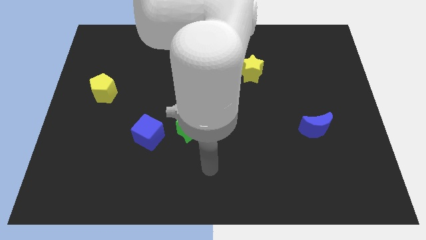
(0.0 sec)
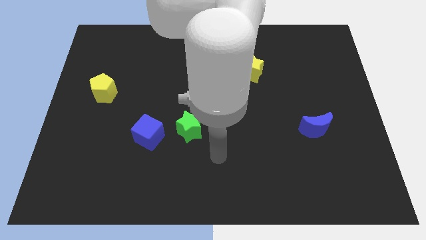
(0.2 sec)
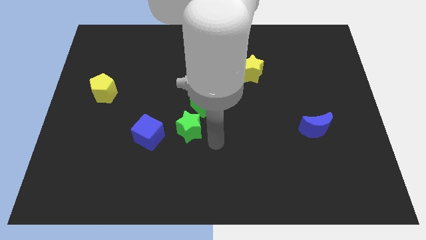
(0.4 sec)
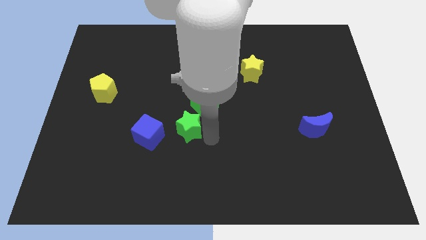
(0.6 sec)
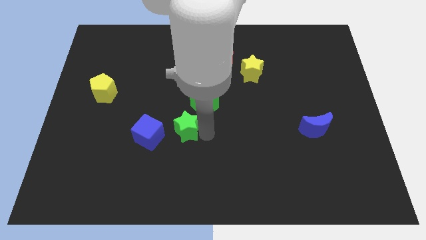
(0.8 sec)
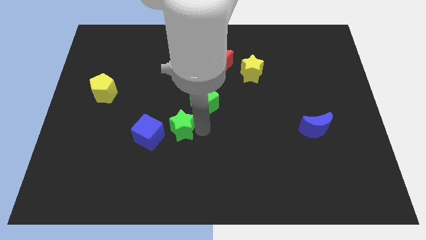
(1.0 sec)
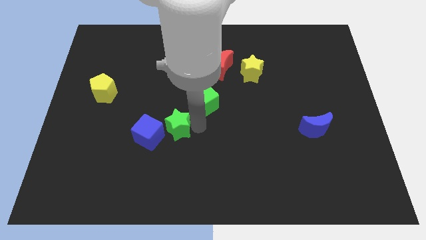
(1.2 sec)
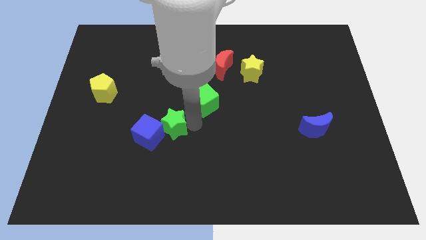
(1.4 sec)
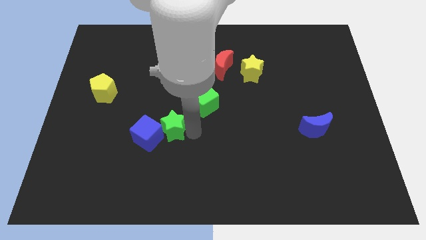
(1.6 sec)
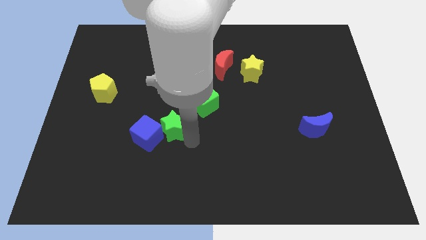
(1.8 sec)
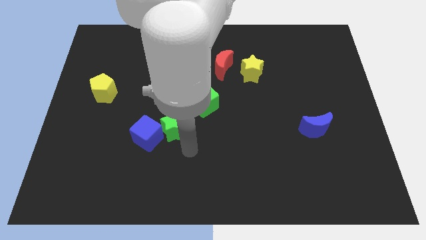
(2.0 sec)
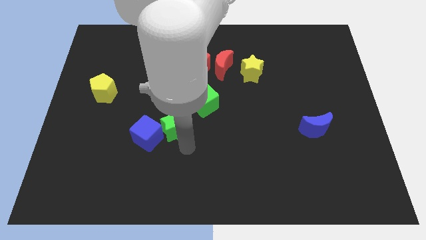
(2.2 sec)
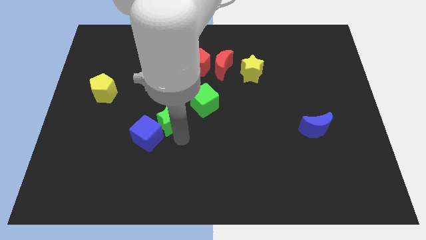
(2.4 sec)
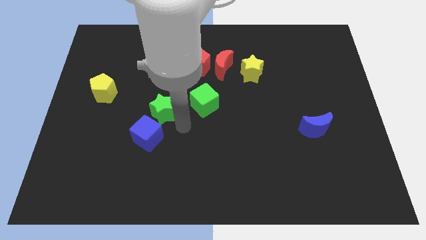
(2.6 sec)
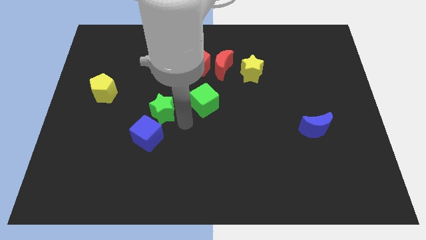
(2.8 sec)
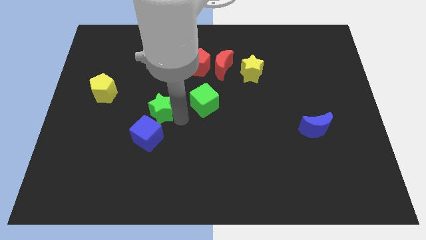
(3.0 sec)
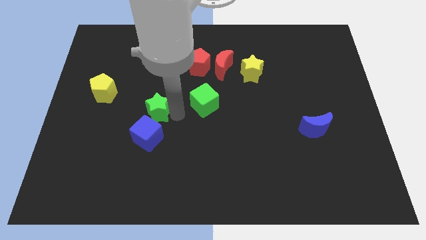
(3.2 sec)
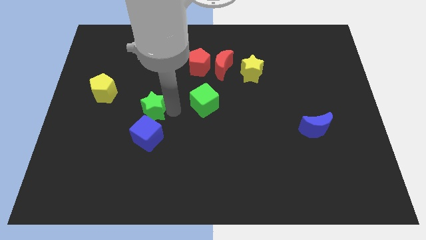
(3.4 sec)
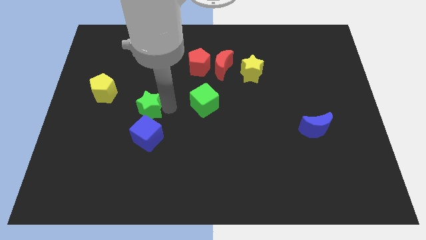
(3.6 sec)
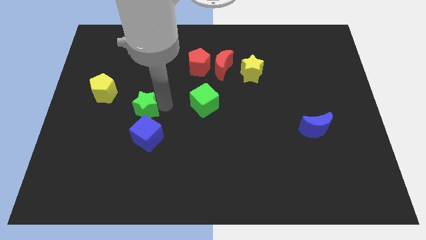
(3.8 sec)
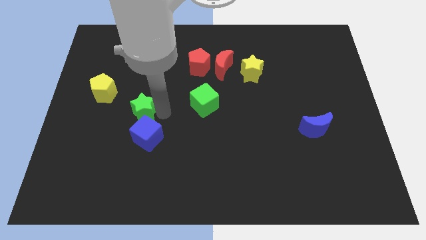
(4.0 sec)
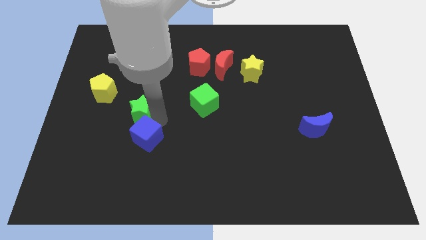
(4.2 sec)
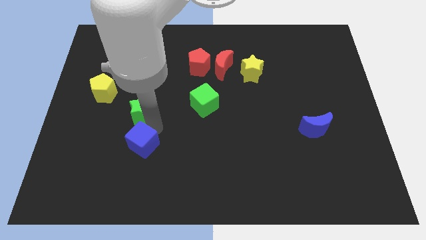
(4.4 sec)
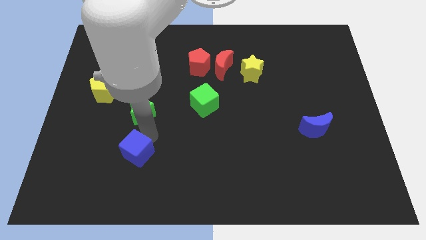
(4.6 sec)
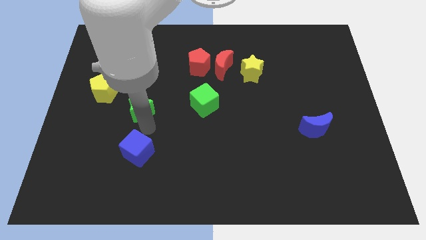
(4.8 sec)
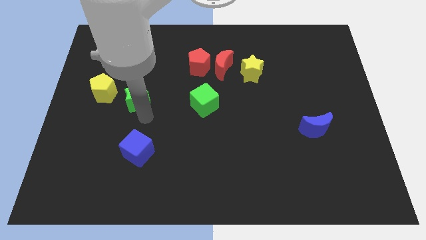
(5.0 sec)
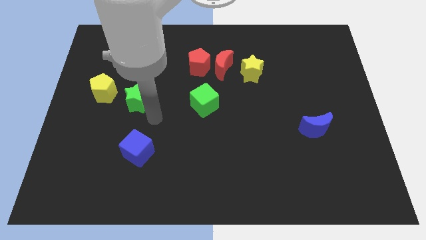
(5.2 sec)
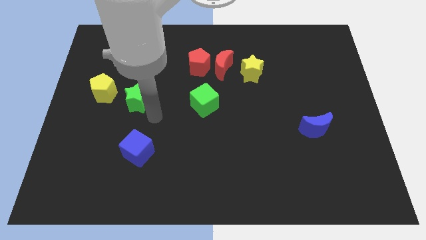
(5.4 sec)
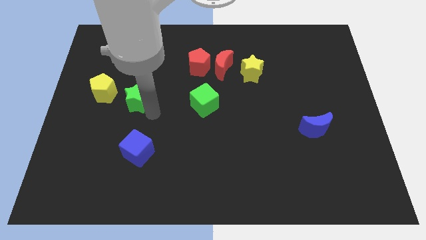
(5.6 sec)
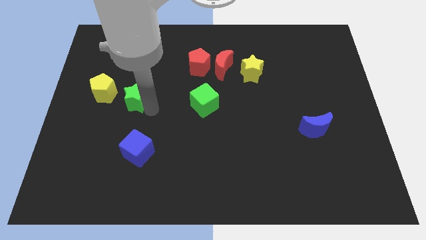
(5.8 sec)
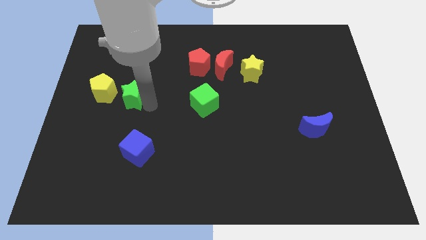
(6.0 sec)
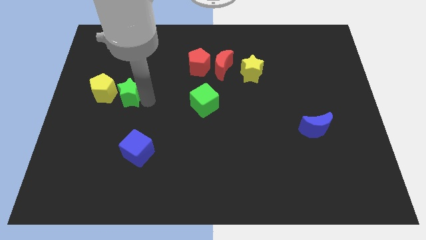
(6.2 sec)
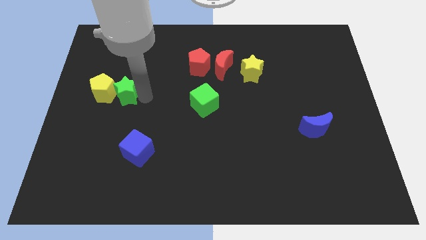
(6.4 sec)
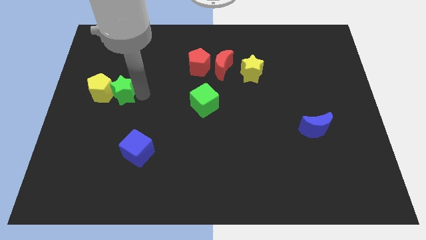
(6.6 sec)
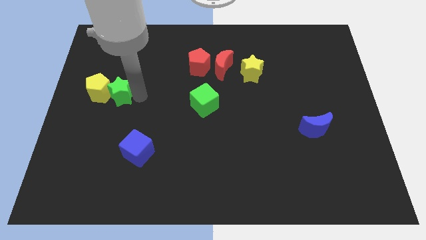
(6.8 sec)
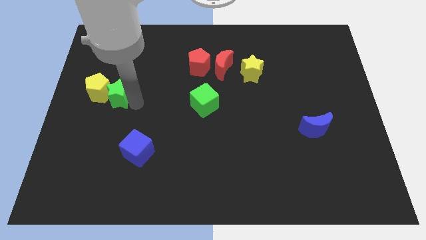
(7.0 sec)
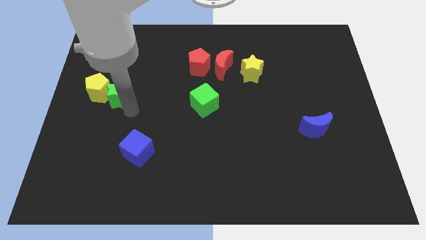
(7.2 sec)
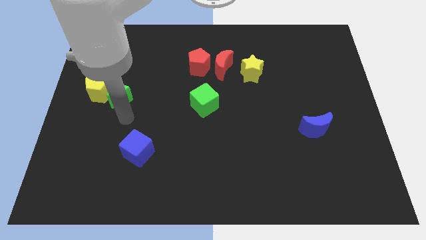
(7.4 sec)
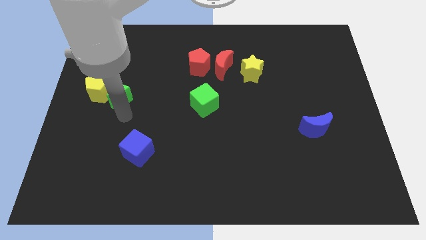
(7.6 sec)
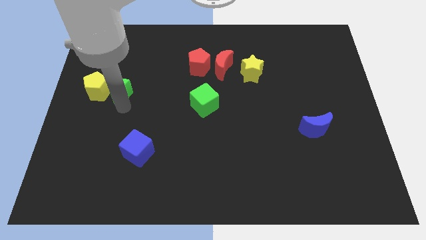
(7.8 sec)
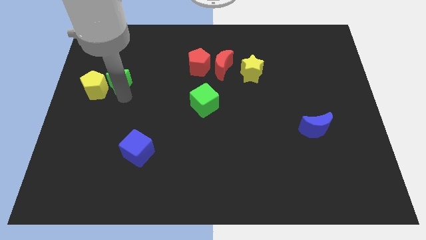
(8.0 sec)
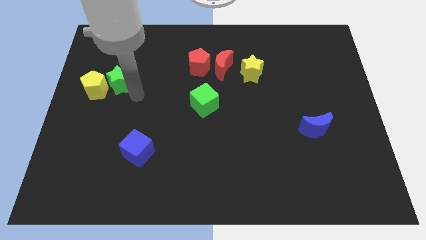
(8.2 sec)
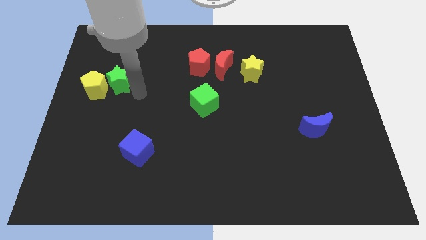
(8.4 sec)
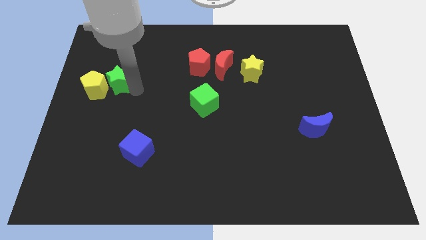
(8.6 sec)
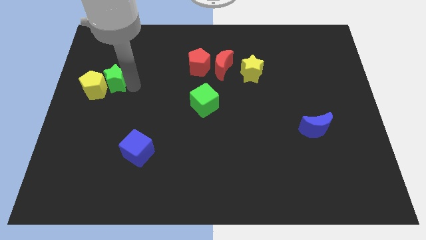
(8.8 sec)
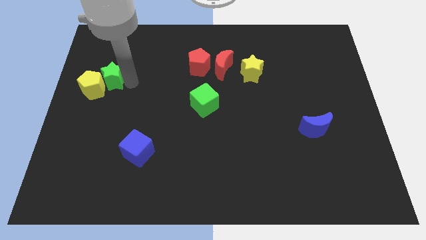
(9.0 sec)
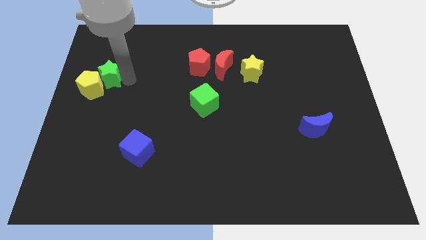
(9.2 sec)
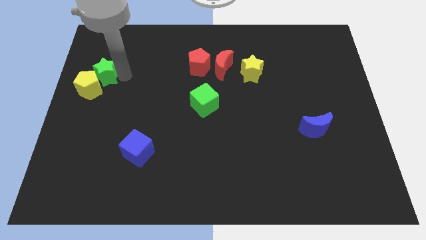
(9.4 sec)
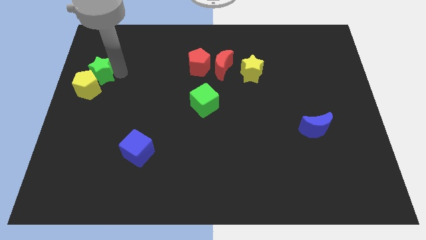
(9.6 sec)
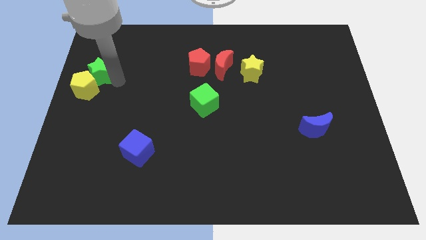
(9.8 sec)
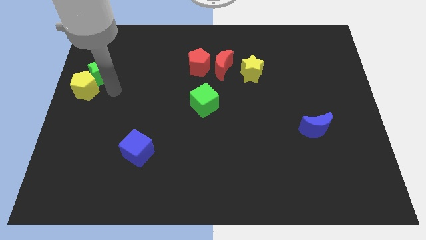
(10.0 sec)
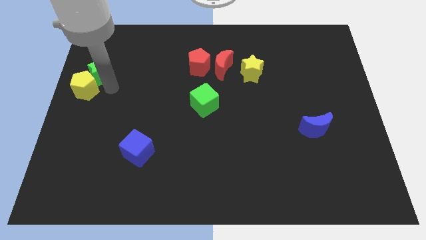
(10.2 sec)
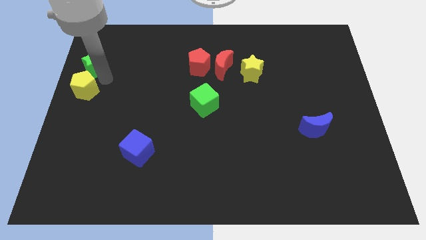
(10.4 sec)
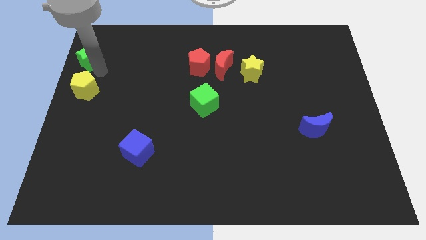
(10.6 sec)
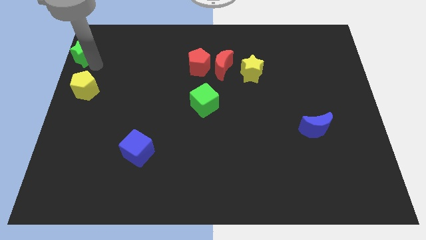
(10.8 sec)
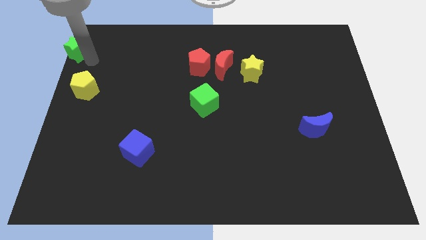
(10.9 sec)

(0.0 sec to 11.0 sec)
slide the green star to the top left corner
